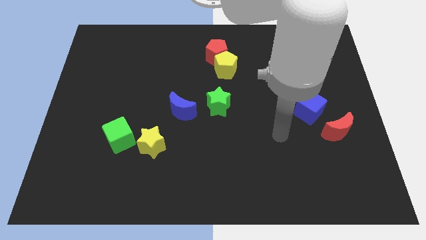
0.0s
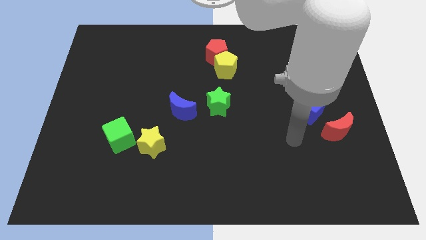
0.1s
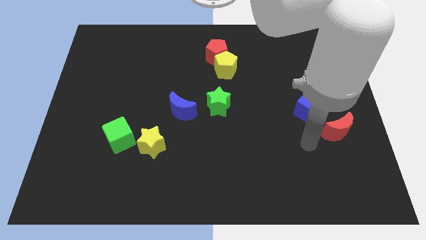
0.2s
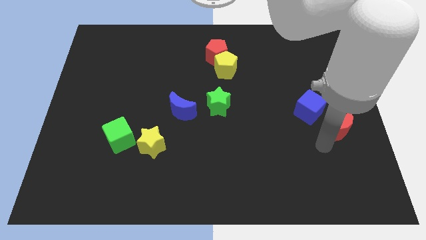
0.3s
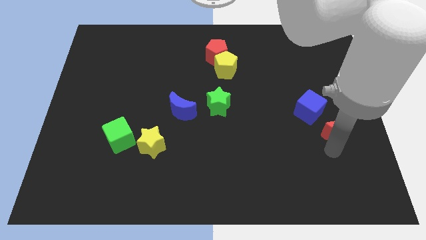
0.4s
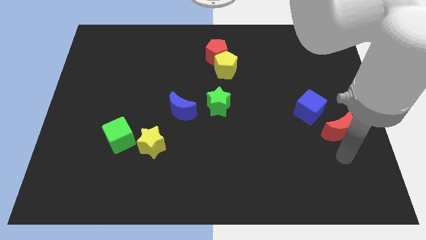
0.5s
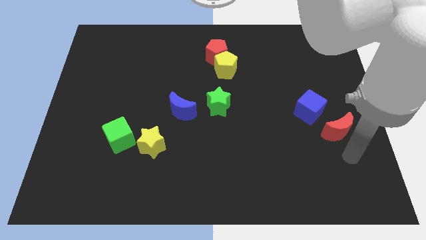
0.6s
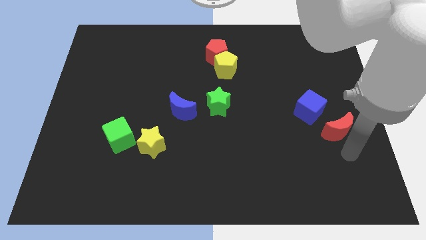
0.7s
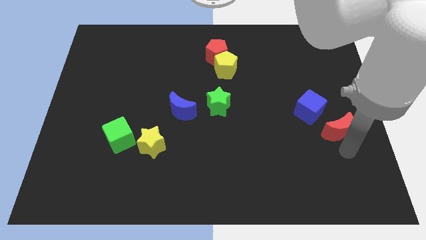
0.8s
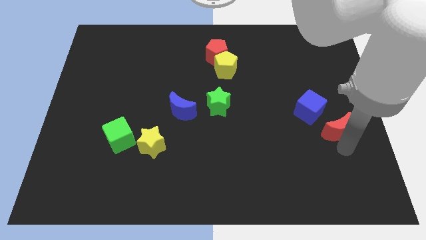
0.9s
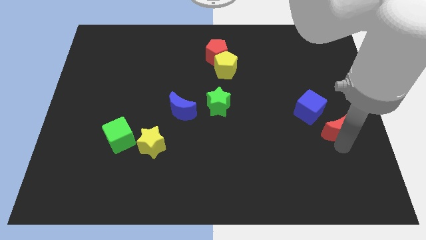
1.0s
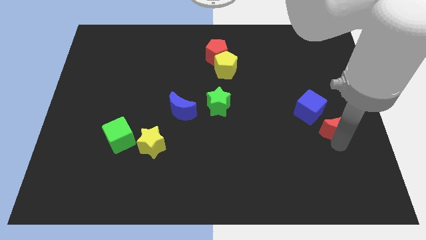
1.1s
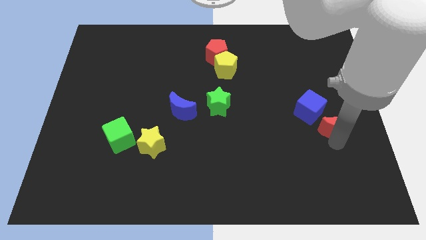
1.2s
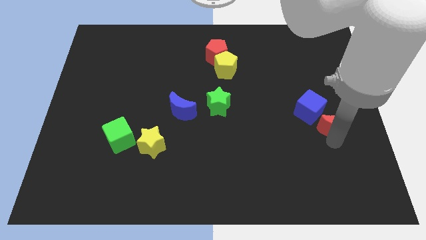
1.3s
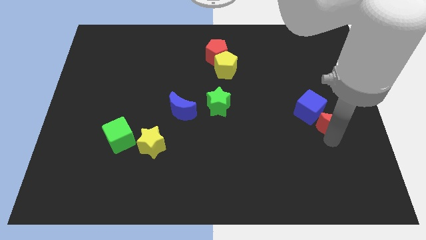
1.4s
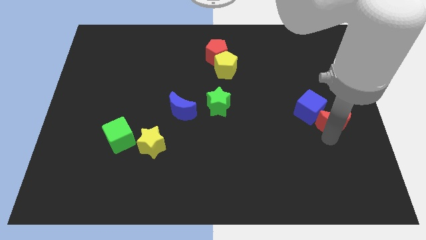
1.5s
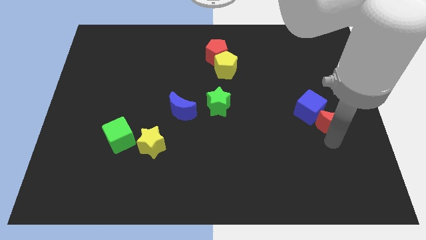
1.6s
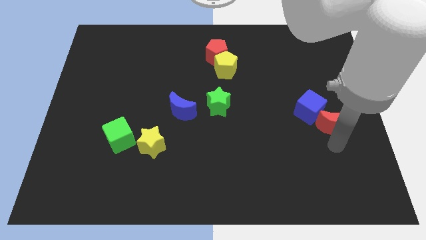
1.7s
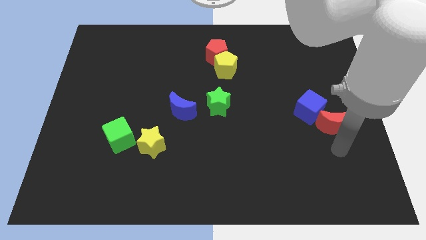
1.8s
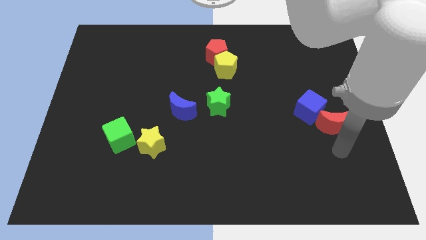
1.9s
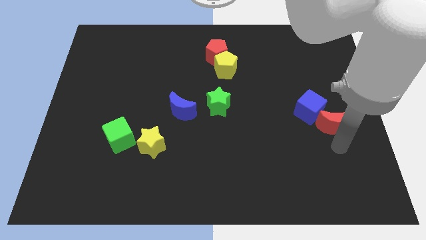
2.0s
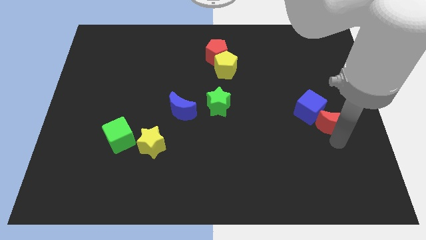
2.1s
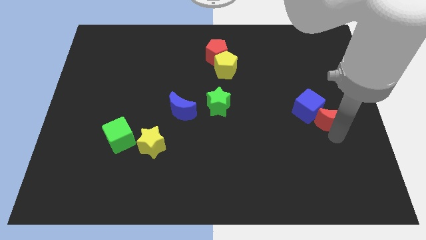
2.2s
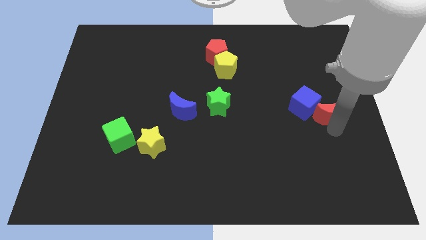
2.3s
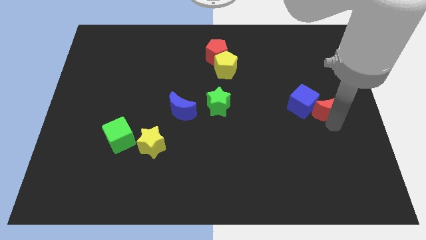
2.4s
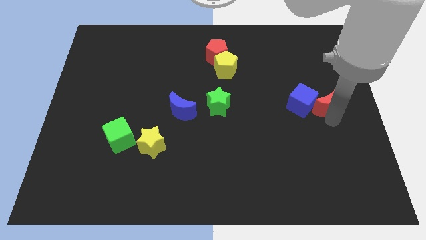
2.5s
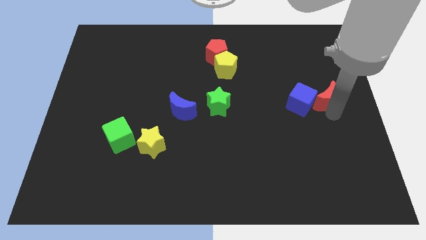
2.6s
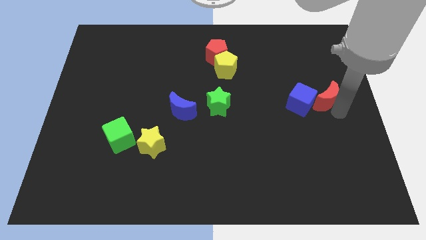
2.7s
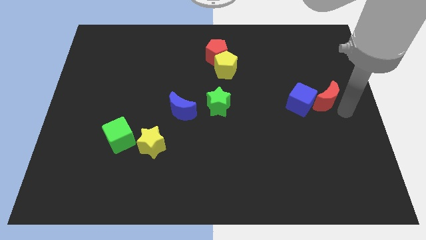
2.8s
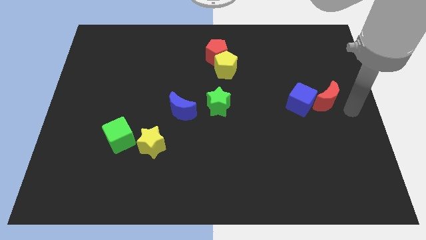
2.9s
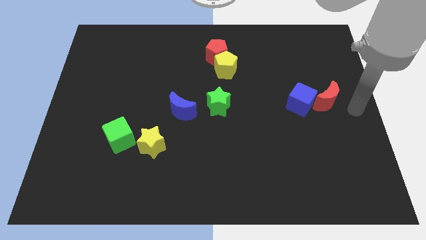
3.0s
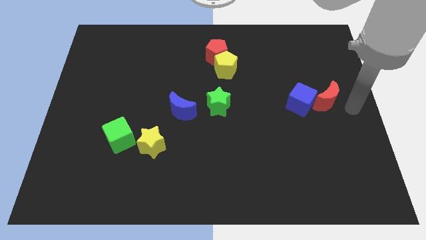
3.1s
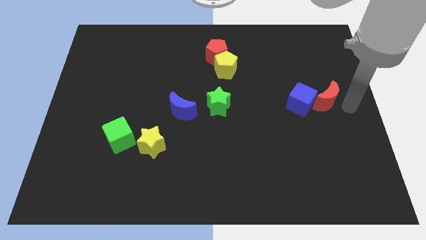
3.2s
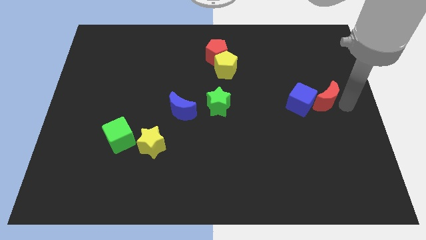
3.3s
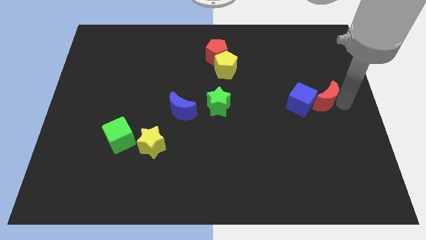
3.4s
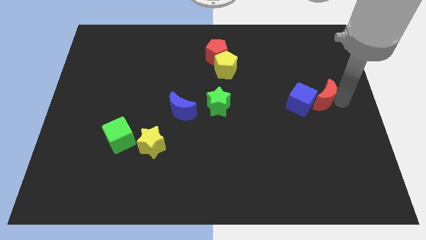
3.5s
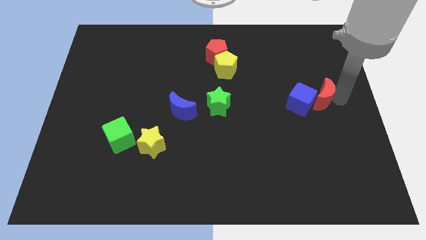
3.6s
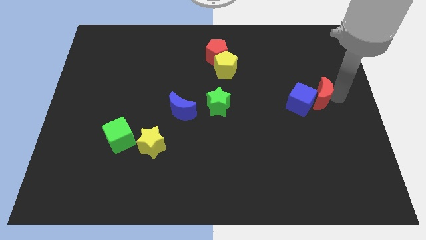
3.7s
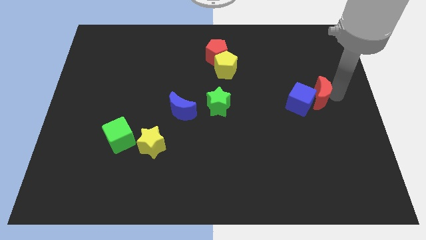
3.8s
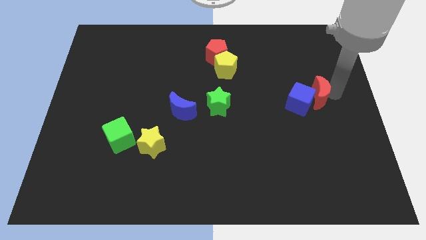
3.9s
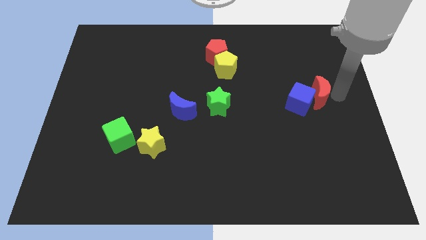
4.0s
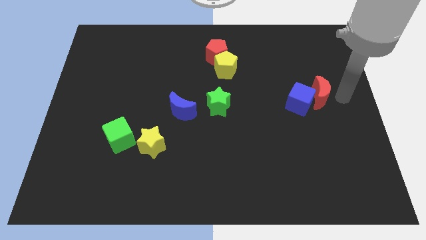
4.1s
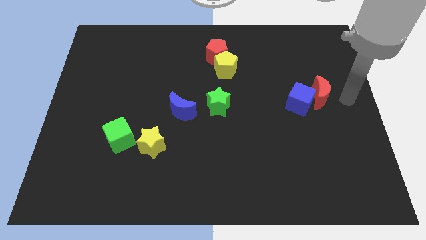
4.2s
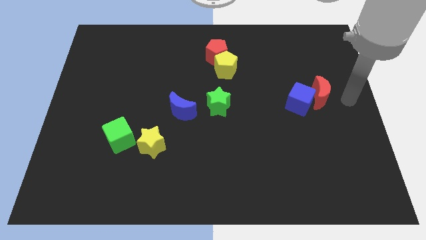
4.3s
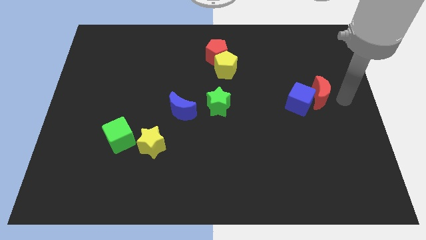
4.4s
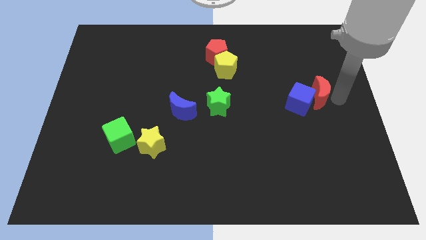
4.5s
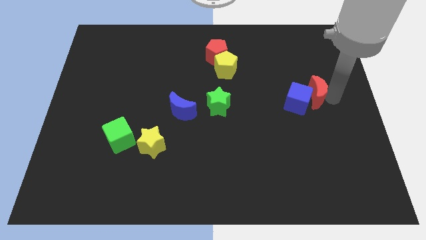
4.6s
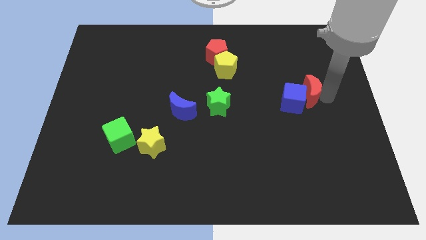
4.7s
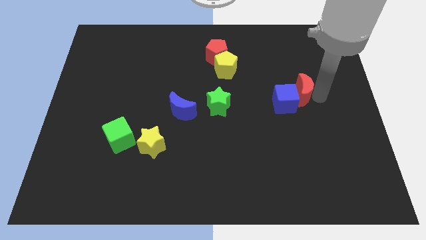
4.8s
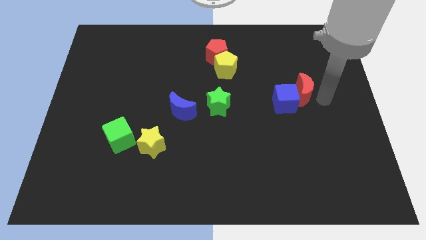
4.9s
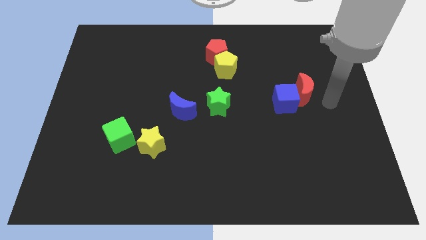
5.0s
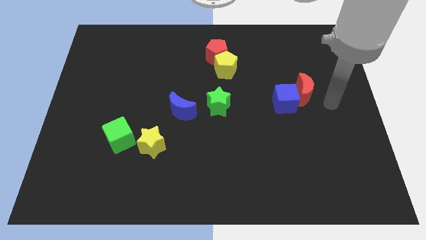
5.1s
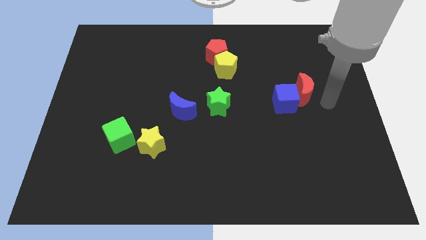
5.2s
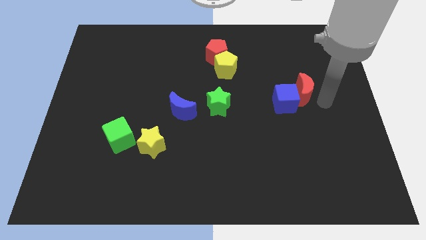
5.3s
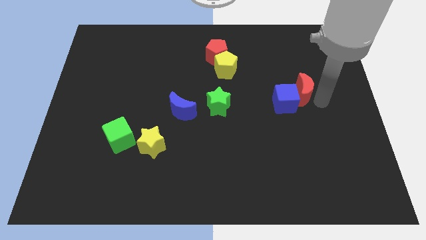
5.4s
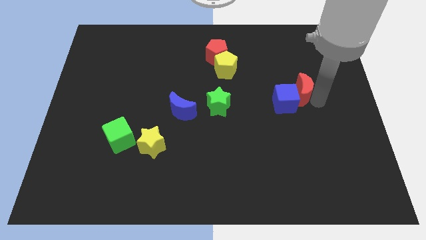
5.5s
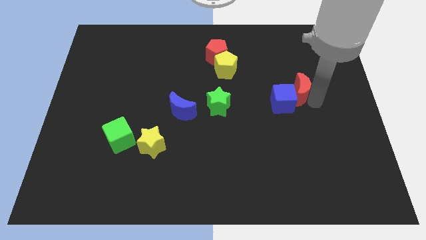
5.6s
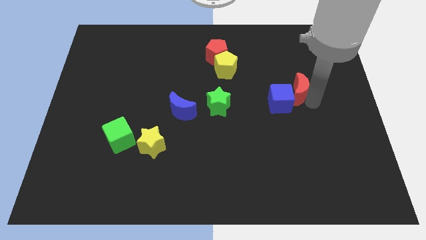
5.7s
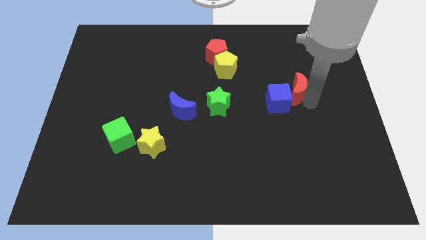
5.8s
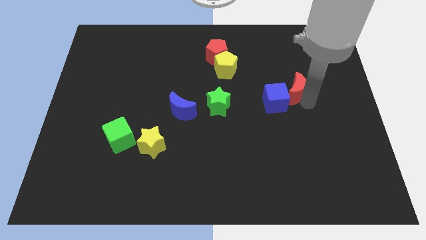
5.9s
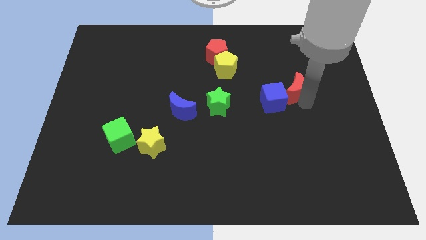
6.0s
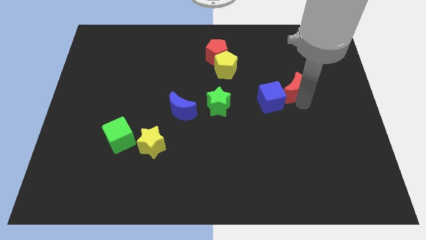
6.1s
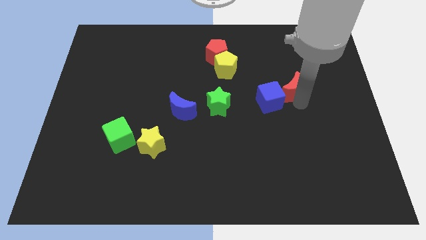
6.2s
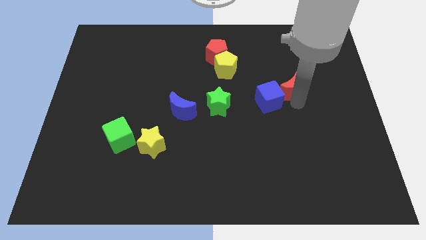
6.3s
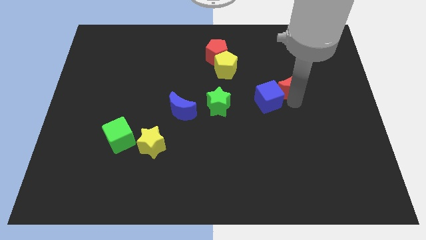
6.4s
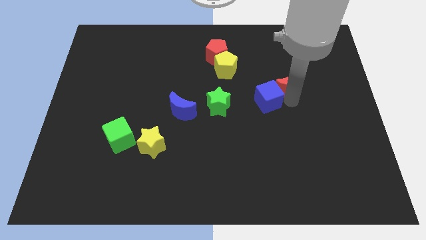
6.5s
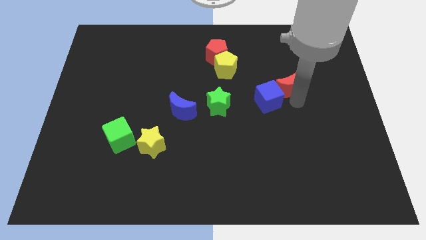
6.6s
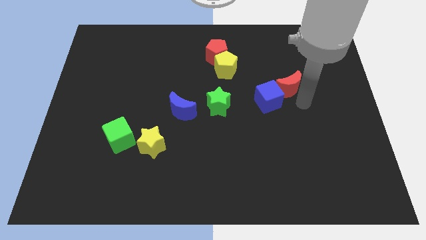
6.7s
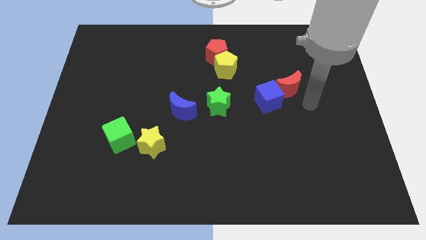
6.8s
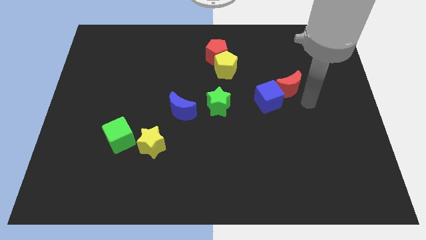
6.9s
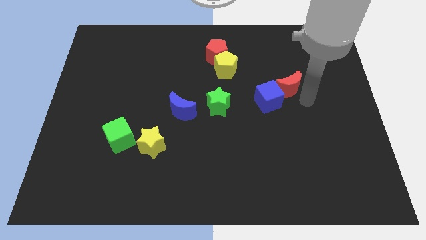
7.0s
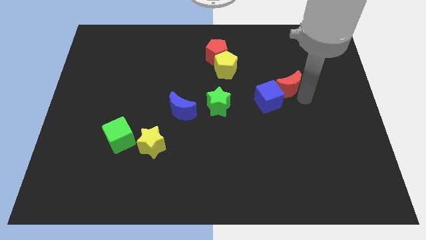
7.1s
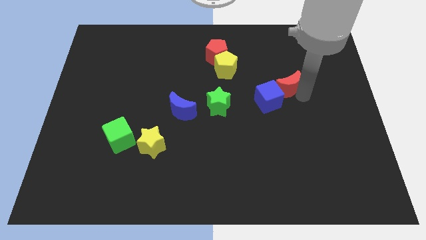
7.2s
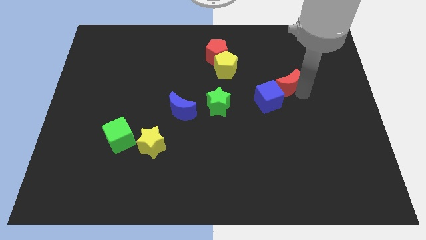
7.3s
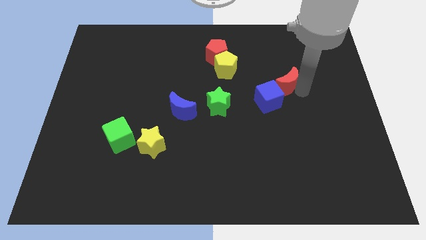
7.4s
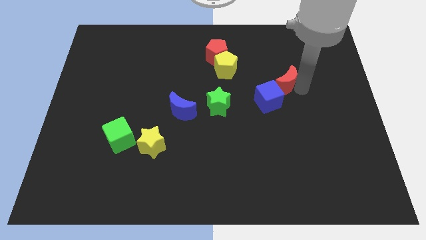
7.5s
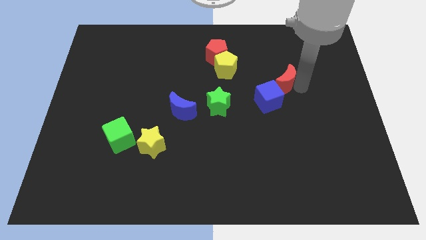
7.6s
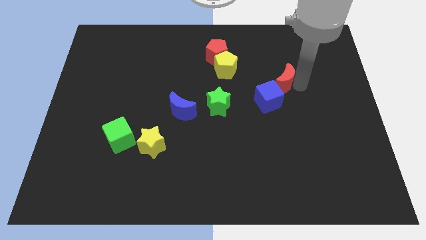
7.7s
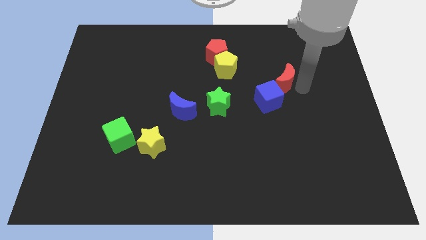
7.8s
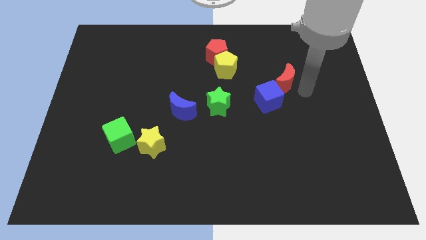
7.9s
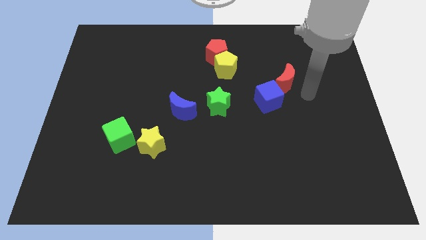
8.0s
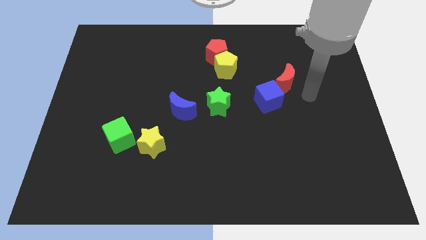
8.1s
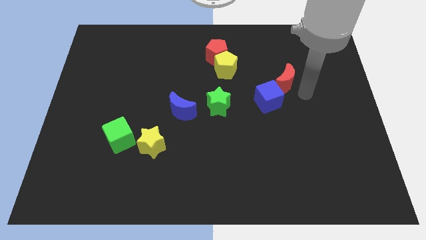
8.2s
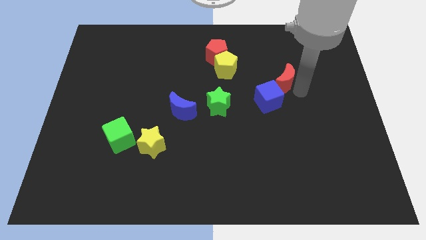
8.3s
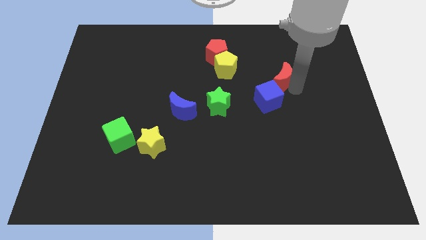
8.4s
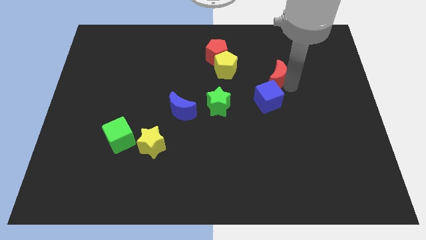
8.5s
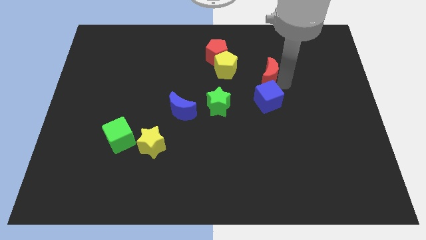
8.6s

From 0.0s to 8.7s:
move the red moon diagonally upwards and left
